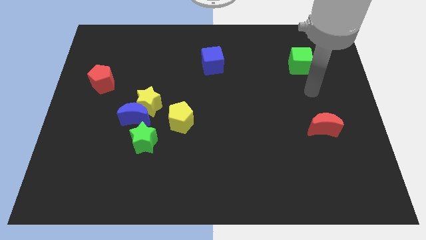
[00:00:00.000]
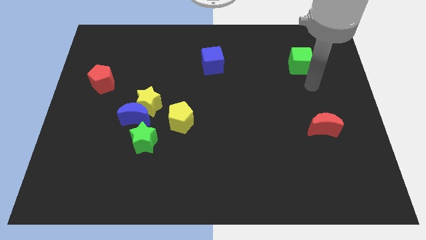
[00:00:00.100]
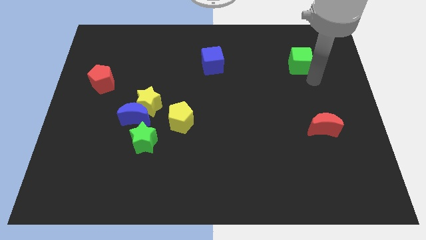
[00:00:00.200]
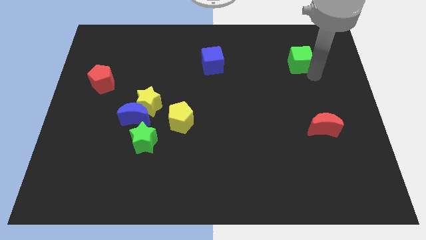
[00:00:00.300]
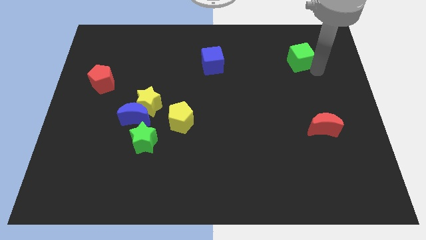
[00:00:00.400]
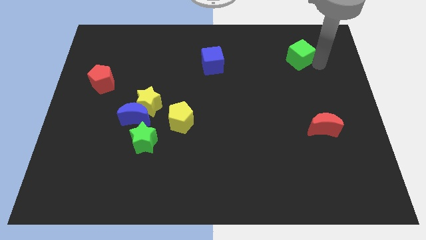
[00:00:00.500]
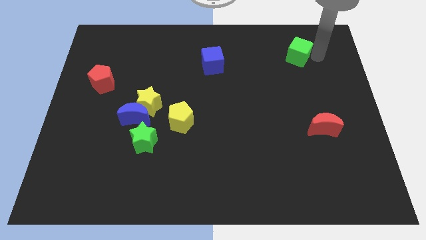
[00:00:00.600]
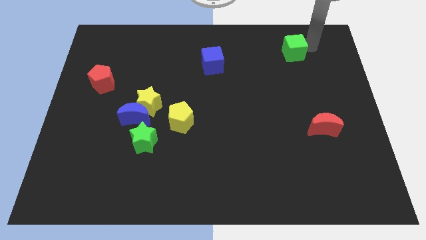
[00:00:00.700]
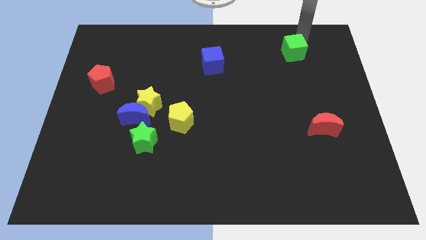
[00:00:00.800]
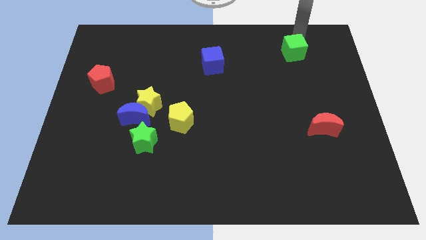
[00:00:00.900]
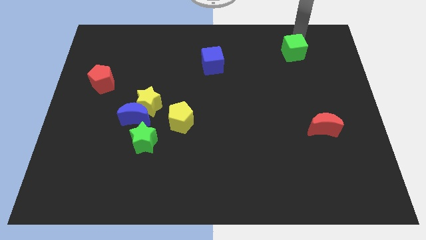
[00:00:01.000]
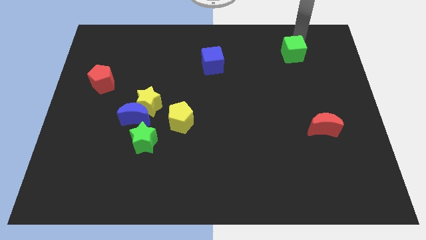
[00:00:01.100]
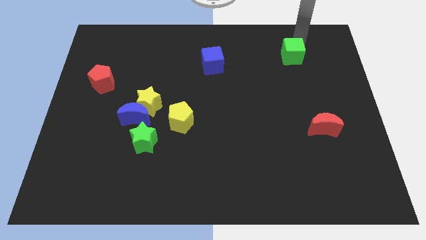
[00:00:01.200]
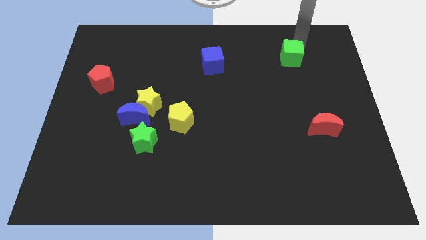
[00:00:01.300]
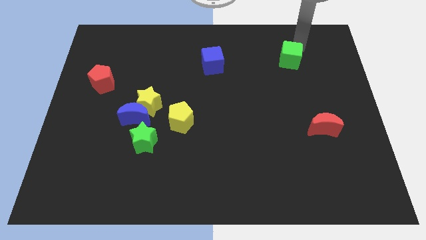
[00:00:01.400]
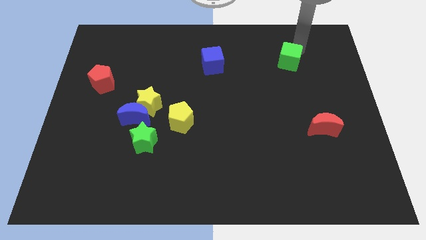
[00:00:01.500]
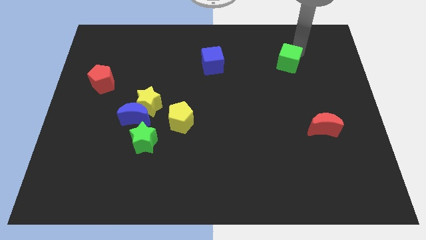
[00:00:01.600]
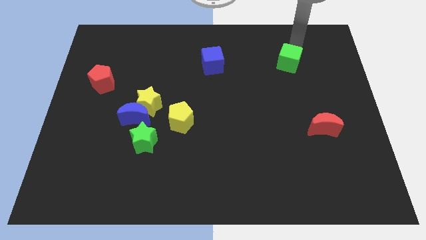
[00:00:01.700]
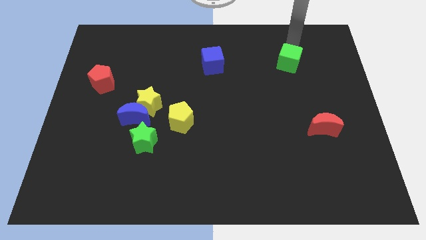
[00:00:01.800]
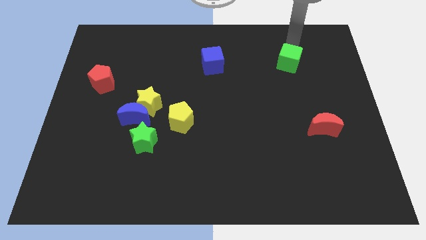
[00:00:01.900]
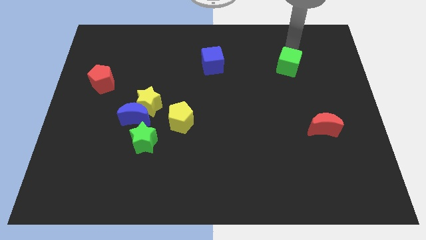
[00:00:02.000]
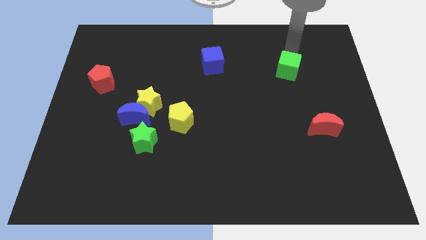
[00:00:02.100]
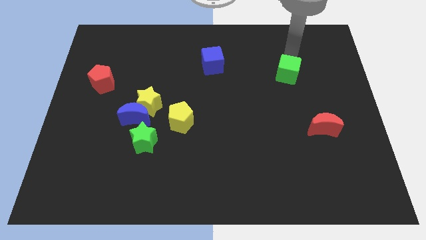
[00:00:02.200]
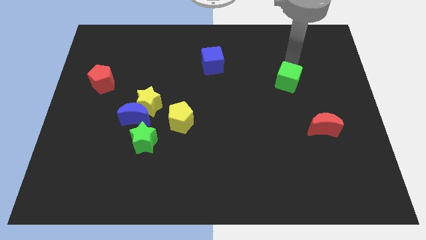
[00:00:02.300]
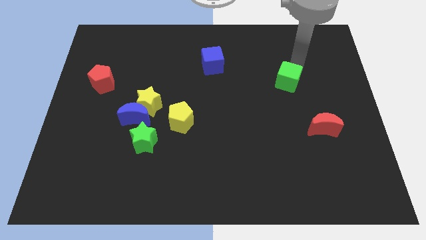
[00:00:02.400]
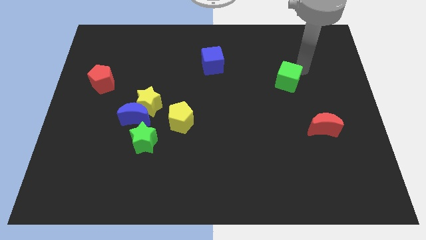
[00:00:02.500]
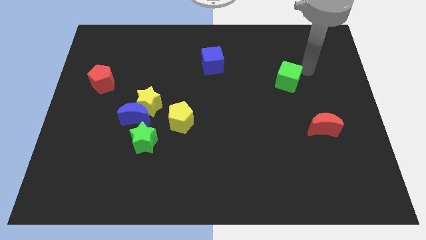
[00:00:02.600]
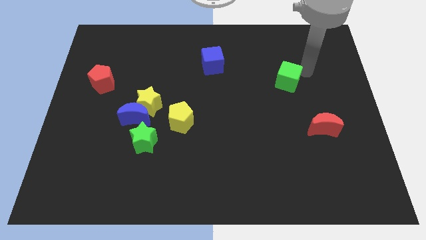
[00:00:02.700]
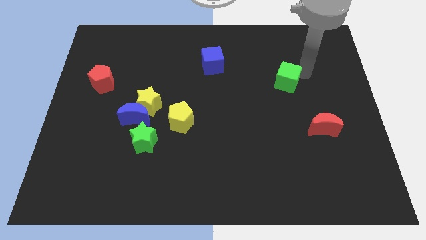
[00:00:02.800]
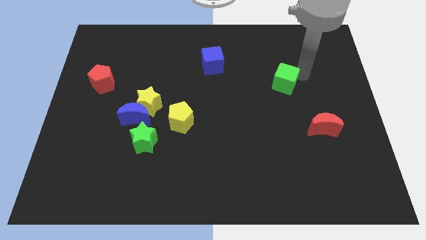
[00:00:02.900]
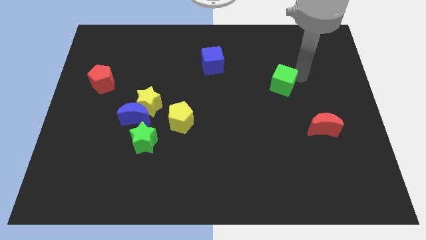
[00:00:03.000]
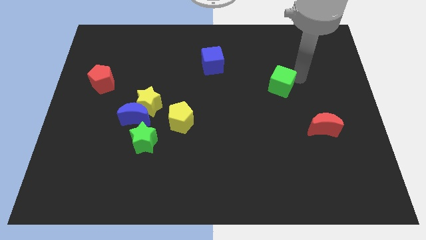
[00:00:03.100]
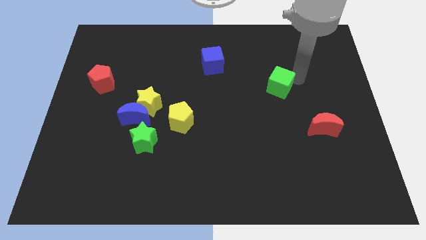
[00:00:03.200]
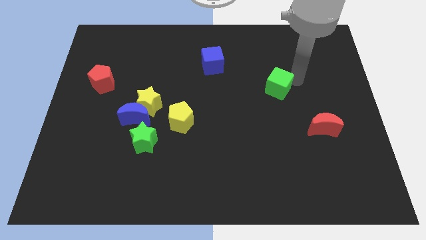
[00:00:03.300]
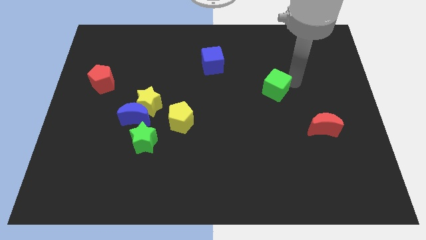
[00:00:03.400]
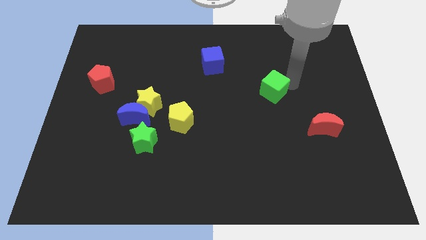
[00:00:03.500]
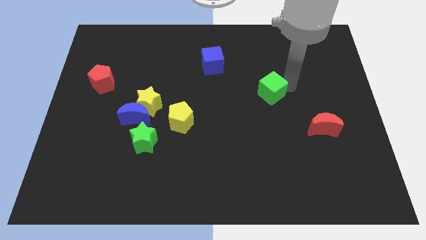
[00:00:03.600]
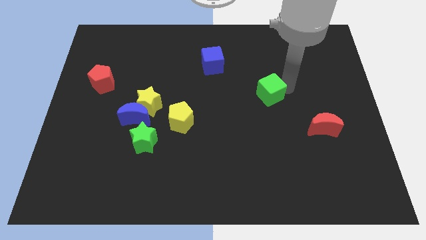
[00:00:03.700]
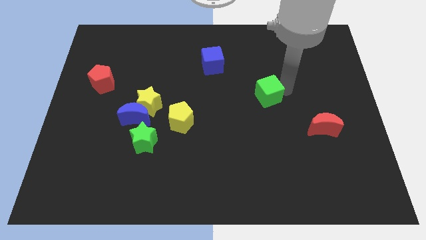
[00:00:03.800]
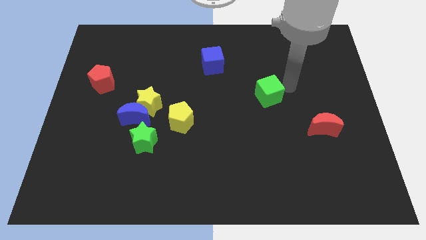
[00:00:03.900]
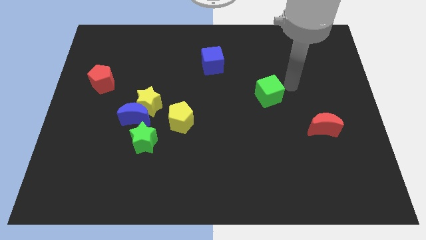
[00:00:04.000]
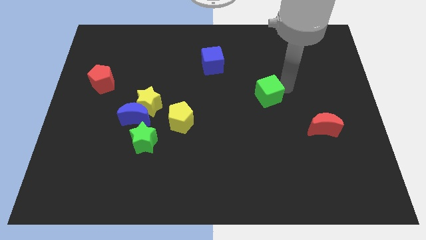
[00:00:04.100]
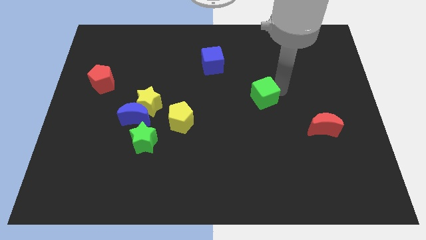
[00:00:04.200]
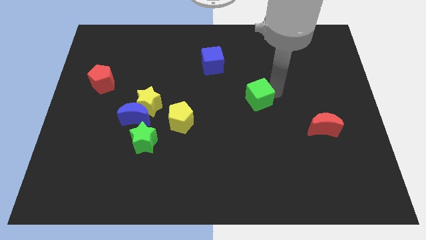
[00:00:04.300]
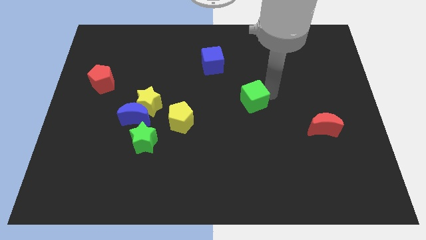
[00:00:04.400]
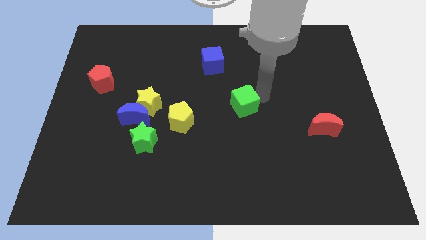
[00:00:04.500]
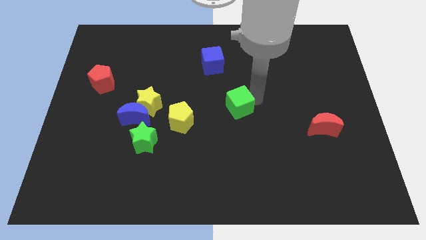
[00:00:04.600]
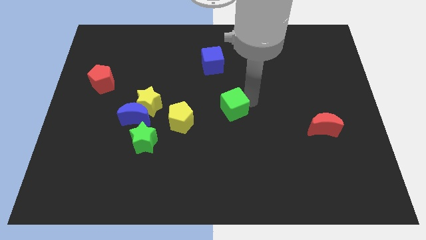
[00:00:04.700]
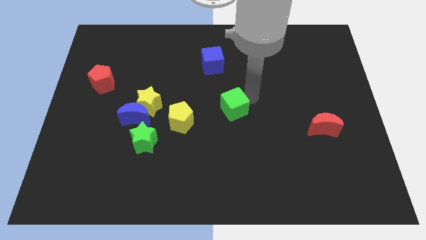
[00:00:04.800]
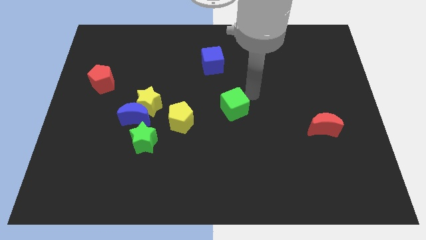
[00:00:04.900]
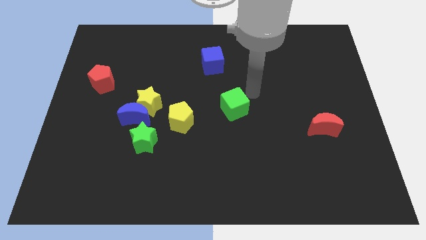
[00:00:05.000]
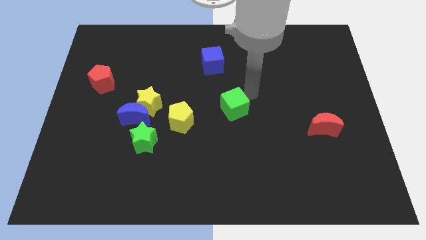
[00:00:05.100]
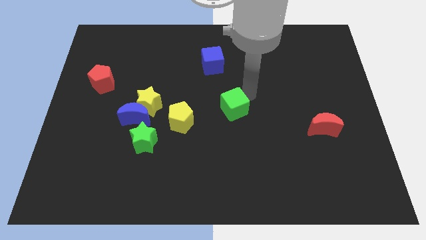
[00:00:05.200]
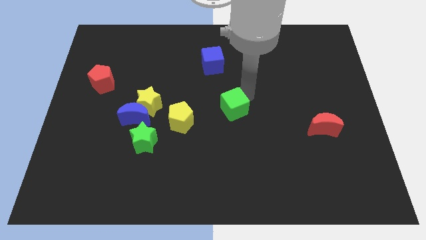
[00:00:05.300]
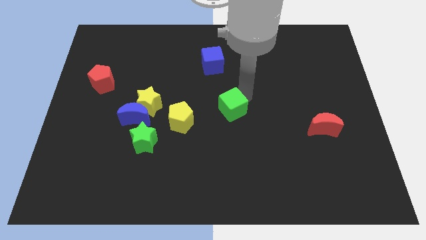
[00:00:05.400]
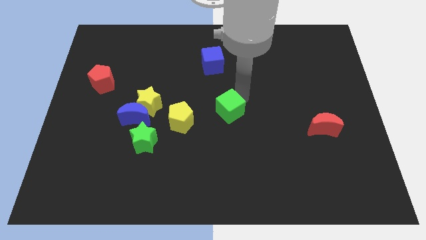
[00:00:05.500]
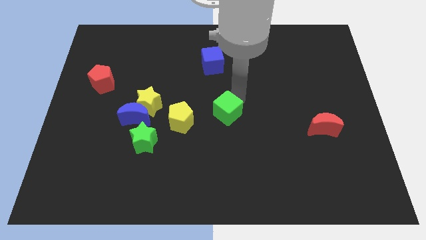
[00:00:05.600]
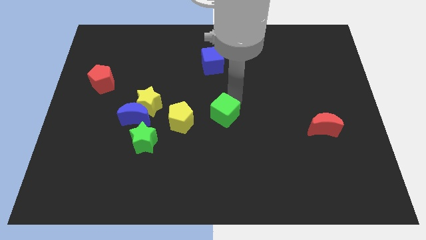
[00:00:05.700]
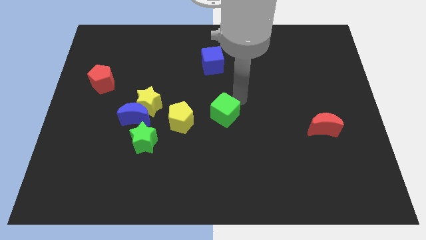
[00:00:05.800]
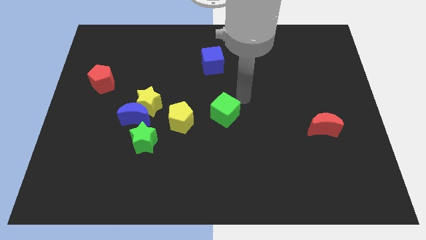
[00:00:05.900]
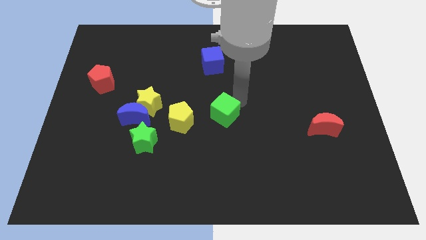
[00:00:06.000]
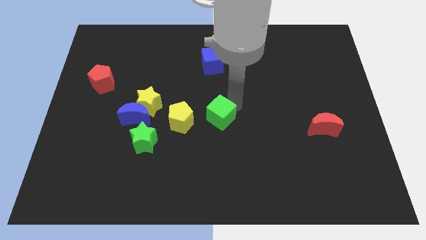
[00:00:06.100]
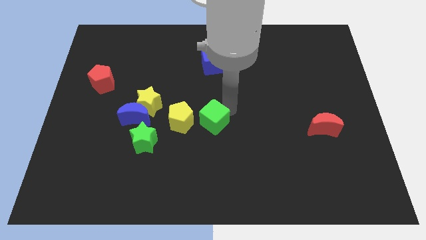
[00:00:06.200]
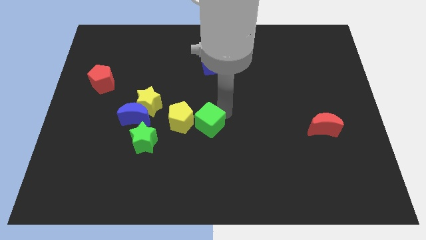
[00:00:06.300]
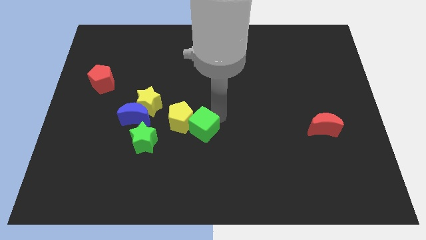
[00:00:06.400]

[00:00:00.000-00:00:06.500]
slide the green cube to the right side of the green star
